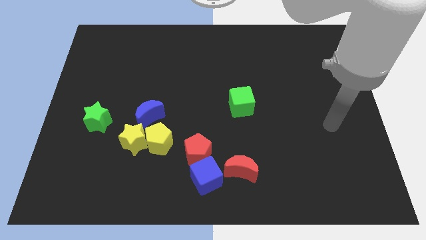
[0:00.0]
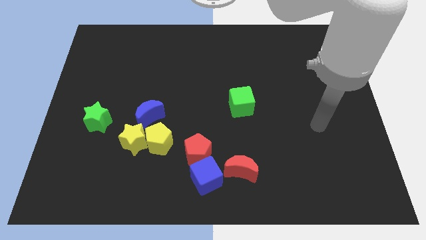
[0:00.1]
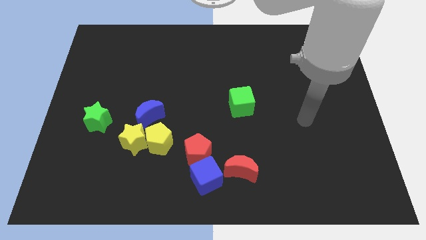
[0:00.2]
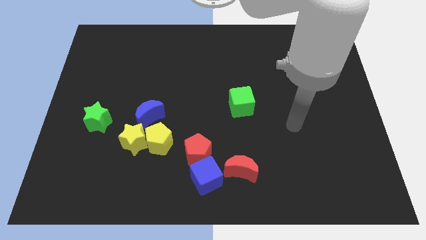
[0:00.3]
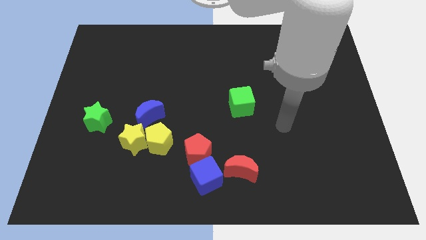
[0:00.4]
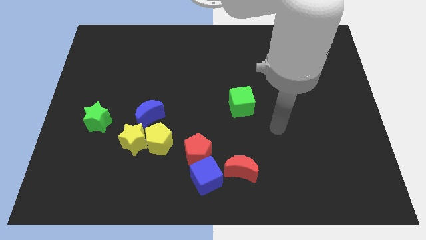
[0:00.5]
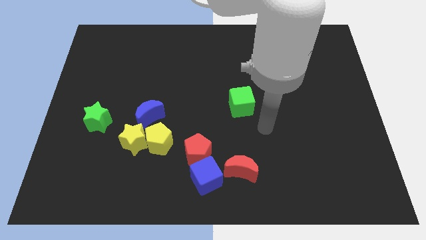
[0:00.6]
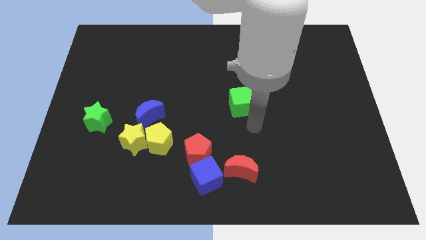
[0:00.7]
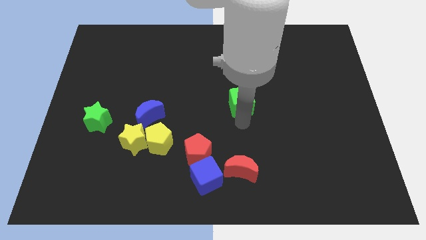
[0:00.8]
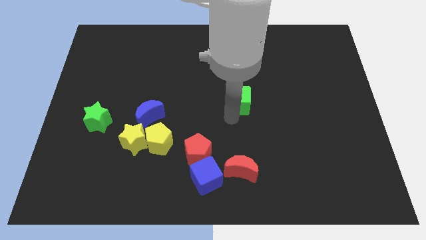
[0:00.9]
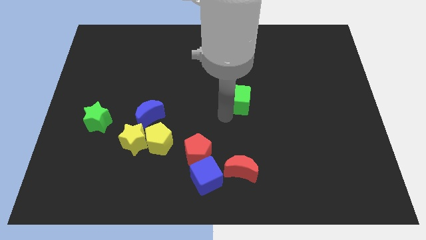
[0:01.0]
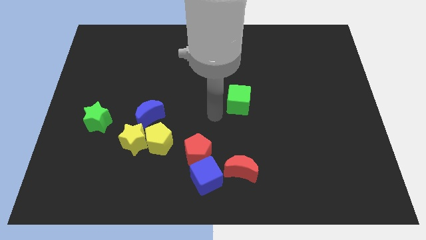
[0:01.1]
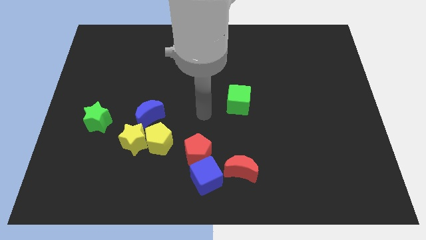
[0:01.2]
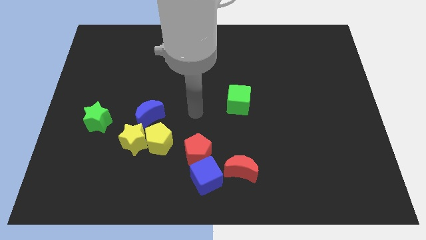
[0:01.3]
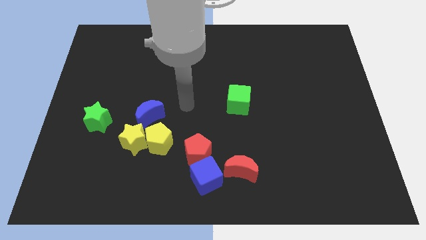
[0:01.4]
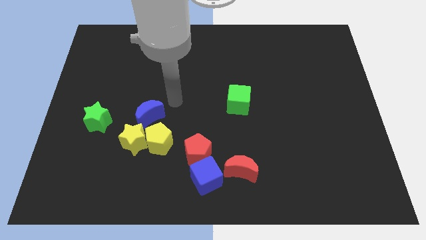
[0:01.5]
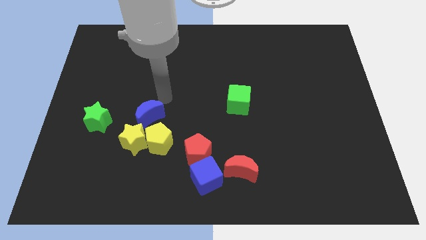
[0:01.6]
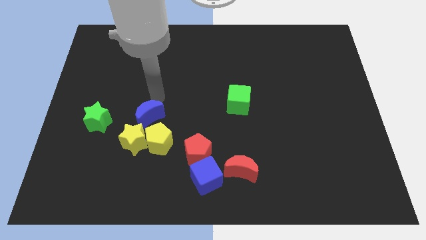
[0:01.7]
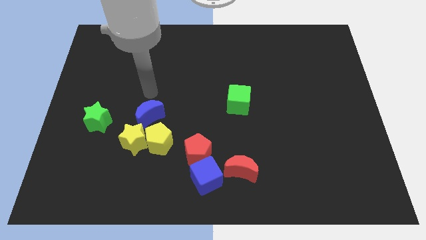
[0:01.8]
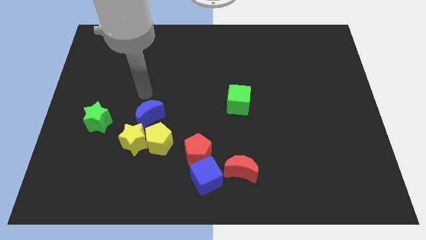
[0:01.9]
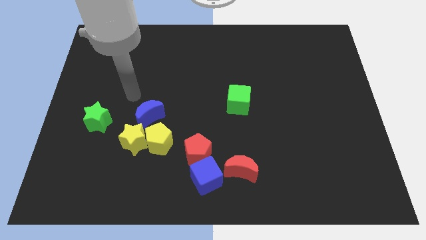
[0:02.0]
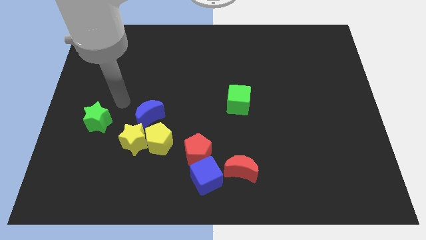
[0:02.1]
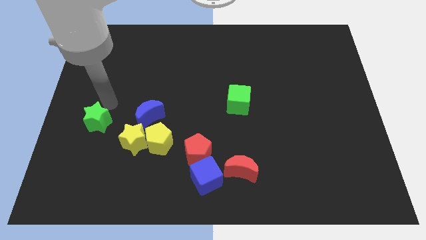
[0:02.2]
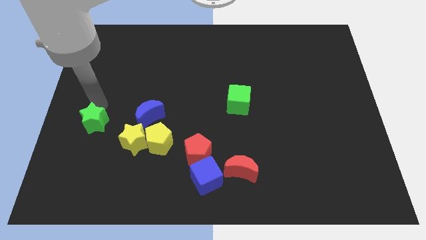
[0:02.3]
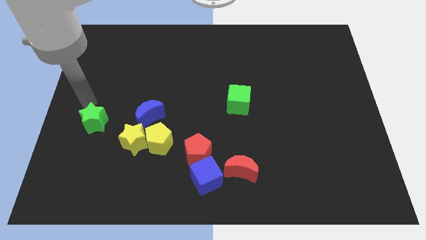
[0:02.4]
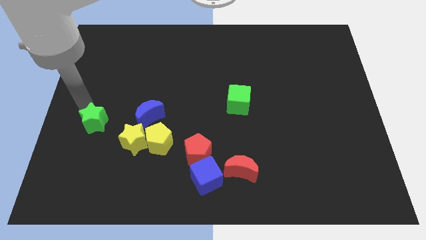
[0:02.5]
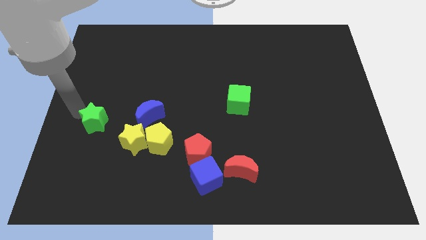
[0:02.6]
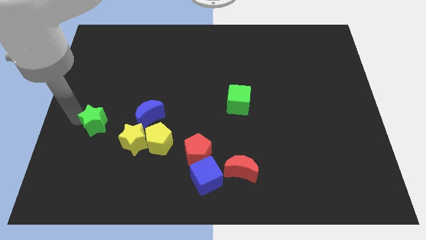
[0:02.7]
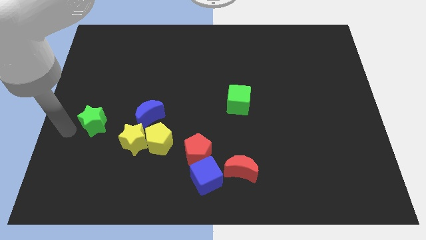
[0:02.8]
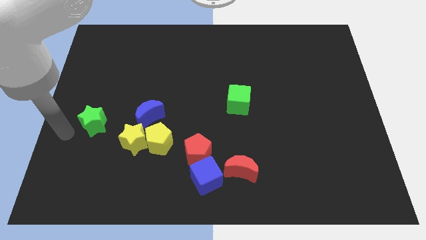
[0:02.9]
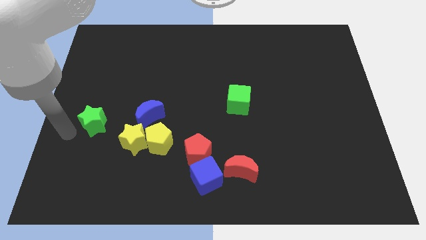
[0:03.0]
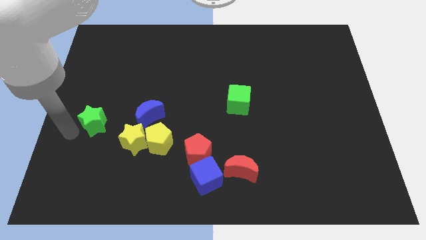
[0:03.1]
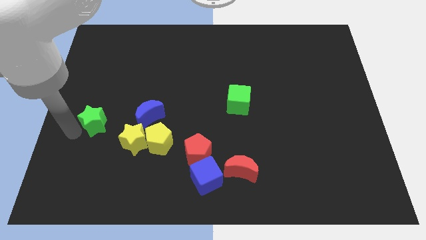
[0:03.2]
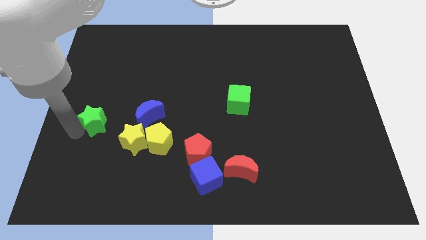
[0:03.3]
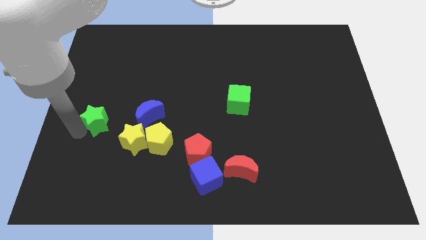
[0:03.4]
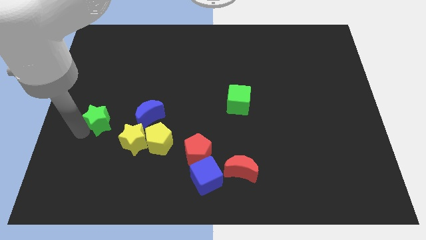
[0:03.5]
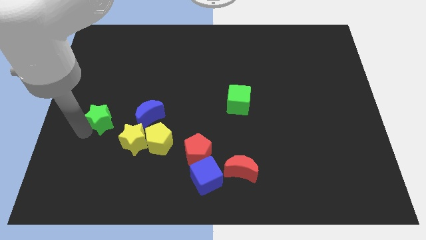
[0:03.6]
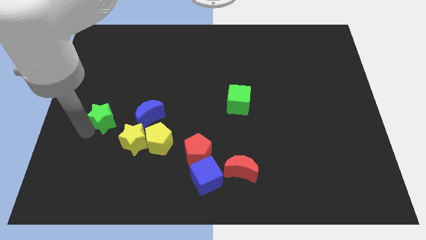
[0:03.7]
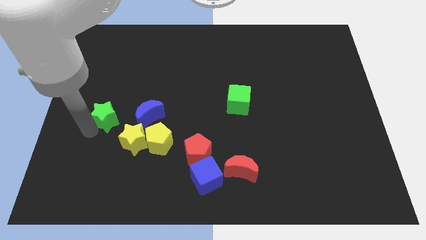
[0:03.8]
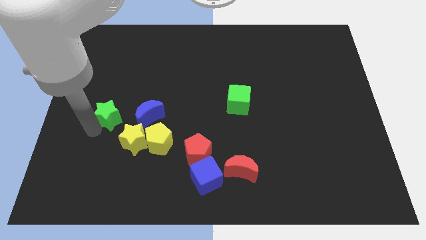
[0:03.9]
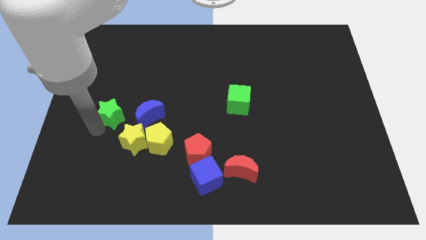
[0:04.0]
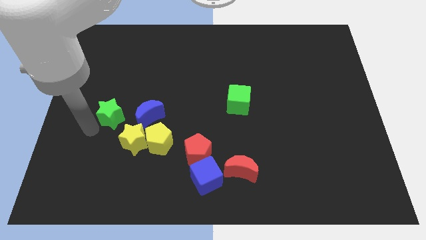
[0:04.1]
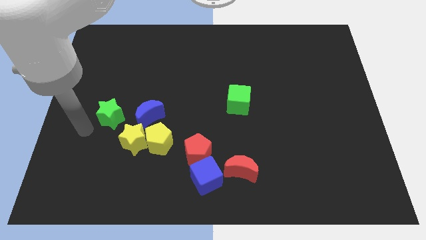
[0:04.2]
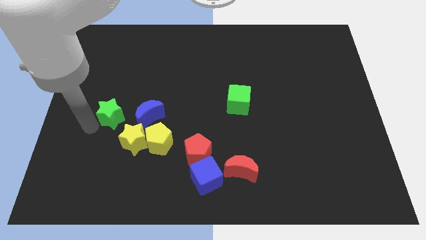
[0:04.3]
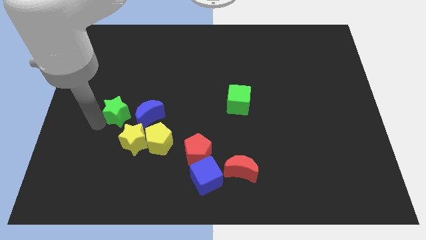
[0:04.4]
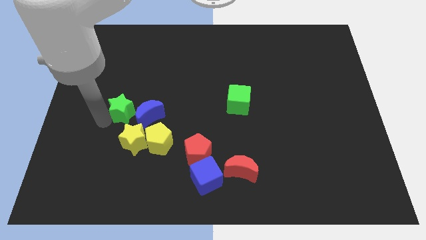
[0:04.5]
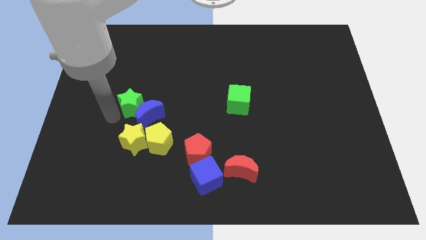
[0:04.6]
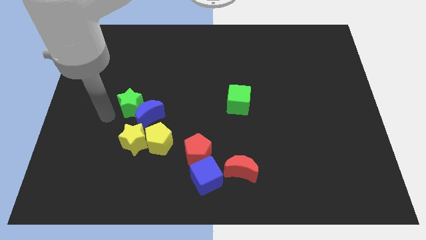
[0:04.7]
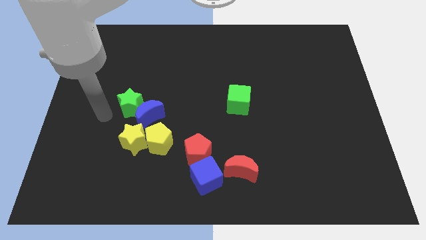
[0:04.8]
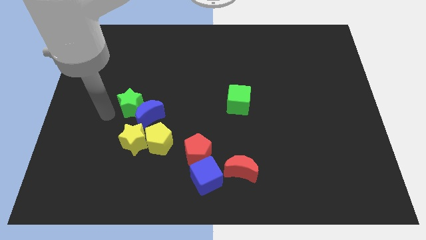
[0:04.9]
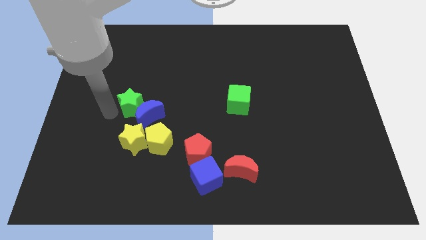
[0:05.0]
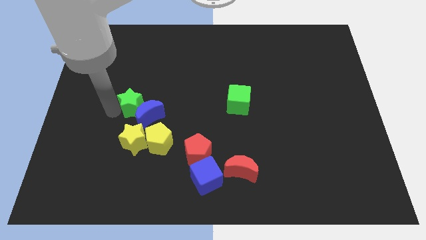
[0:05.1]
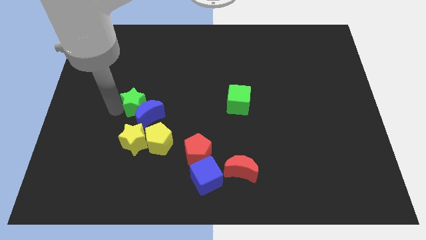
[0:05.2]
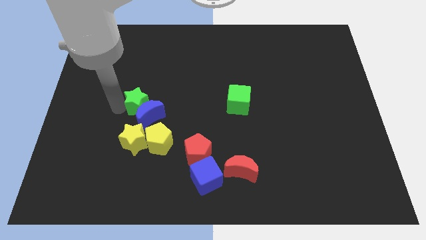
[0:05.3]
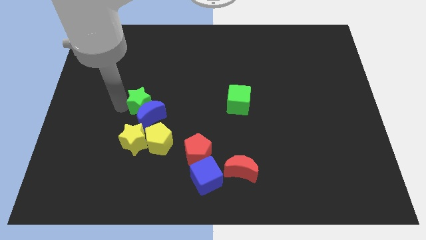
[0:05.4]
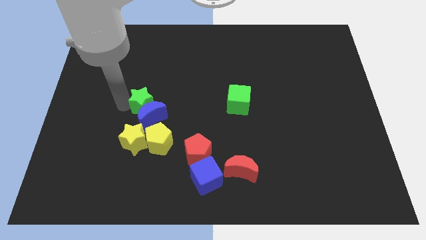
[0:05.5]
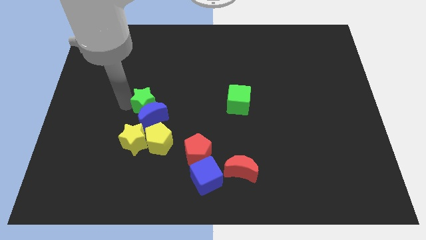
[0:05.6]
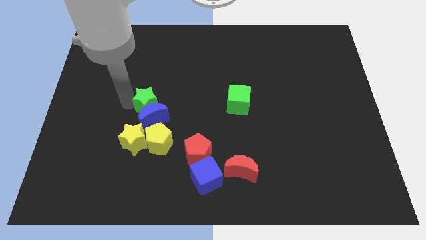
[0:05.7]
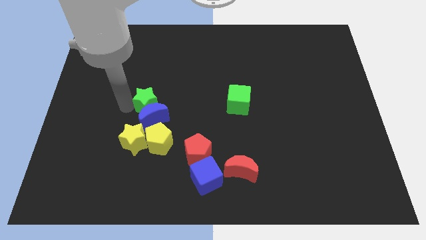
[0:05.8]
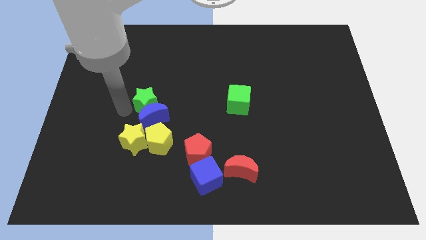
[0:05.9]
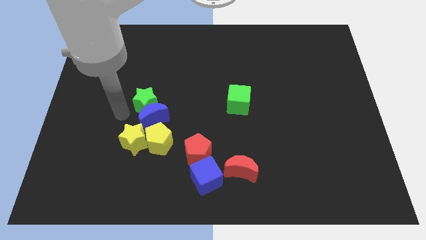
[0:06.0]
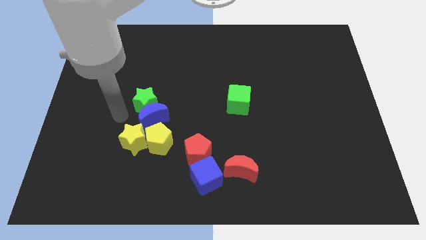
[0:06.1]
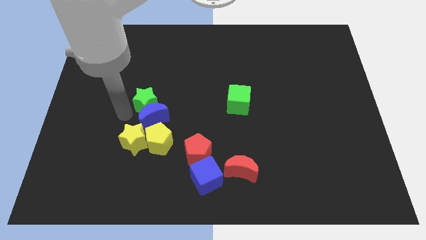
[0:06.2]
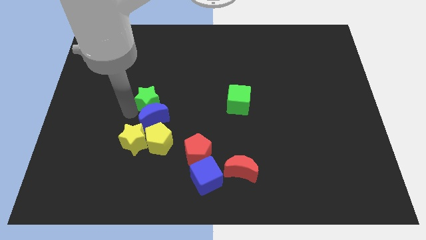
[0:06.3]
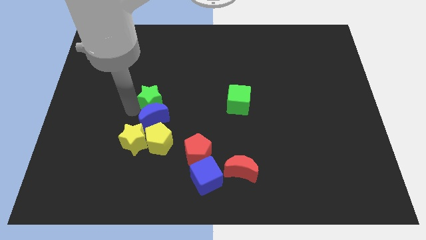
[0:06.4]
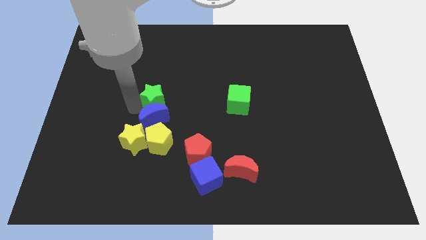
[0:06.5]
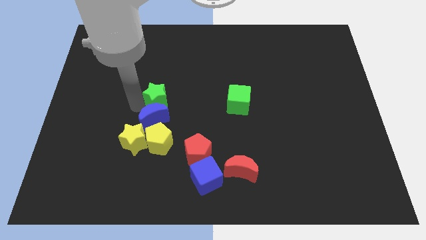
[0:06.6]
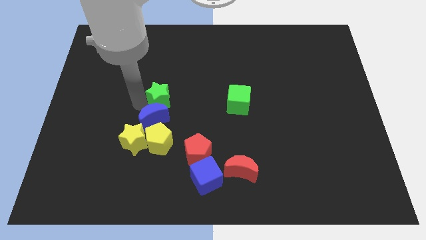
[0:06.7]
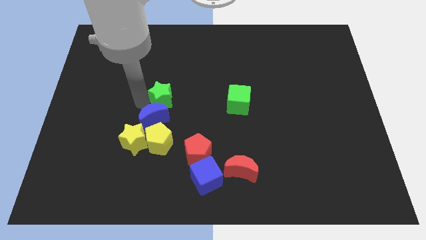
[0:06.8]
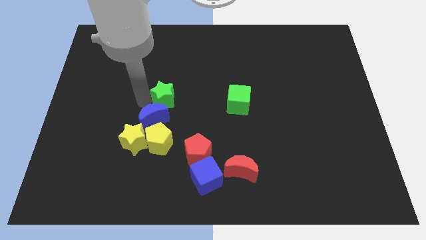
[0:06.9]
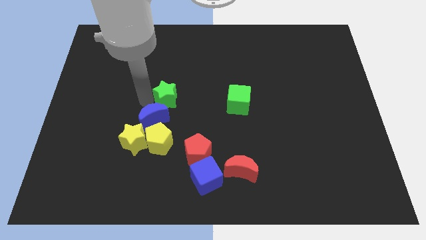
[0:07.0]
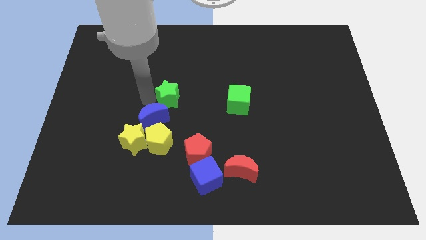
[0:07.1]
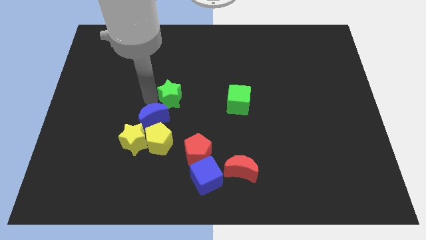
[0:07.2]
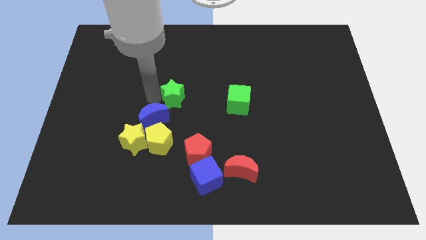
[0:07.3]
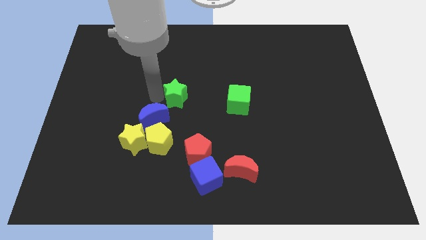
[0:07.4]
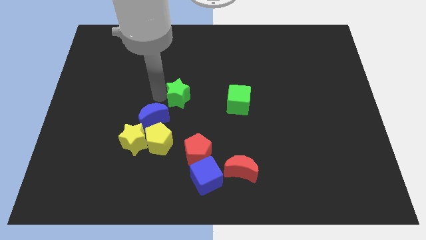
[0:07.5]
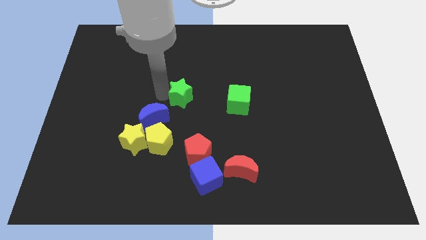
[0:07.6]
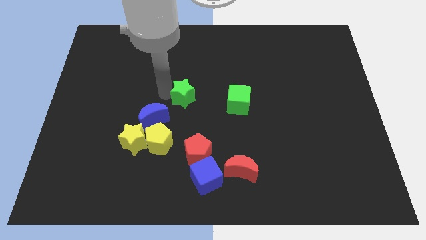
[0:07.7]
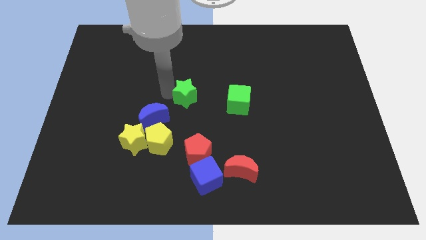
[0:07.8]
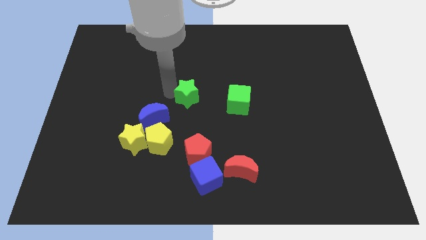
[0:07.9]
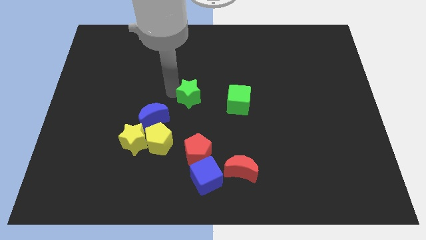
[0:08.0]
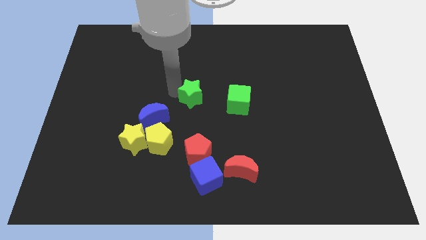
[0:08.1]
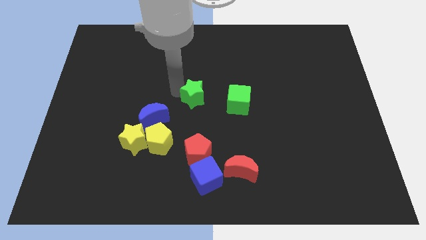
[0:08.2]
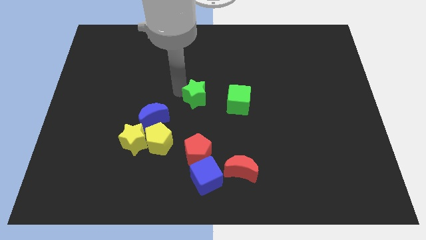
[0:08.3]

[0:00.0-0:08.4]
push the green star right
